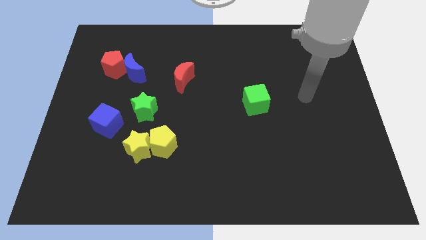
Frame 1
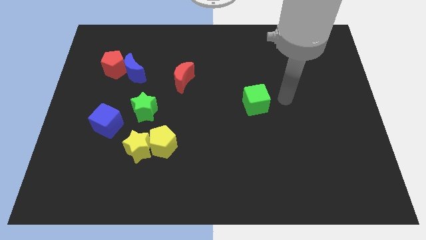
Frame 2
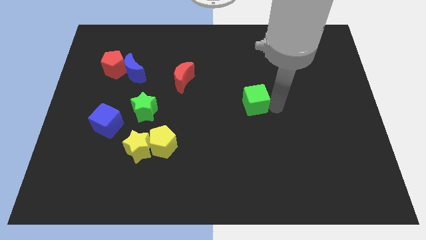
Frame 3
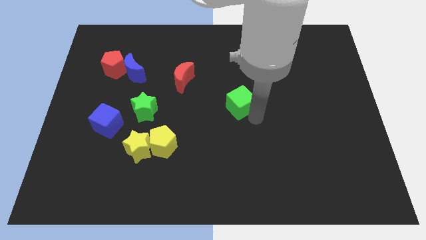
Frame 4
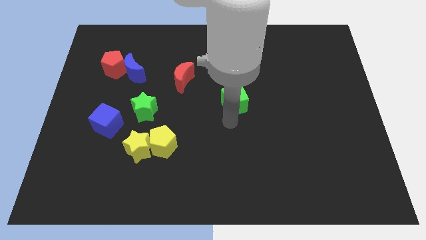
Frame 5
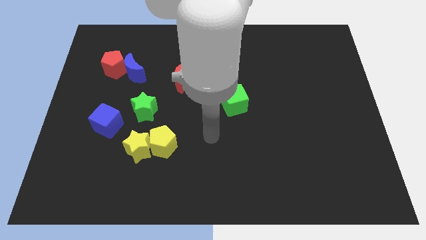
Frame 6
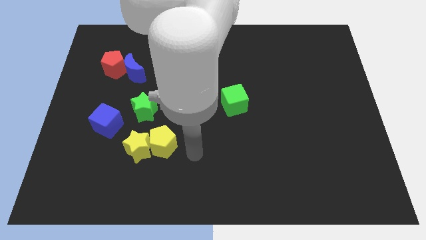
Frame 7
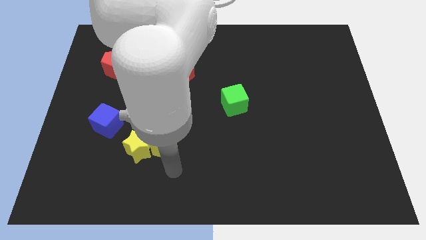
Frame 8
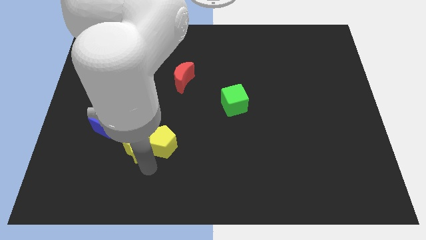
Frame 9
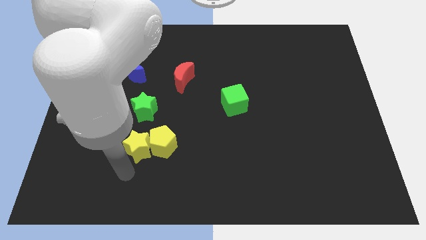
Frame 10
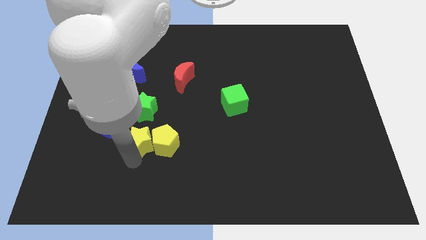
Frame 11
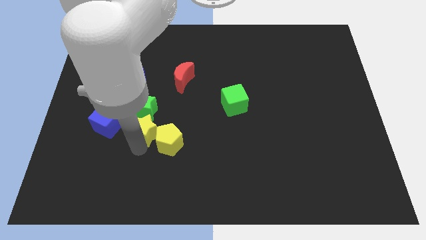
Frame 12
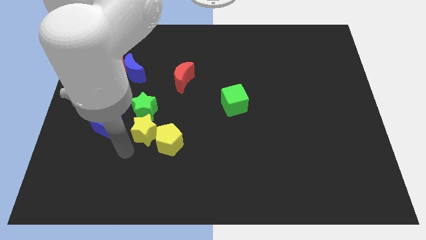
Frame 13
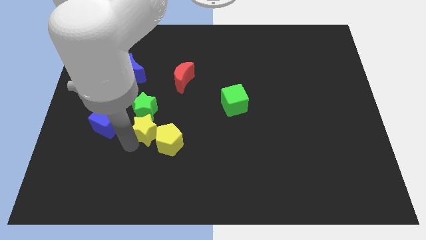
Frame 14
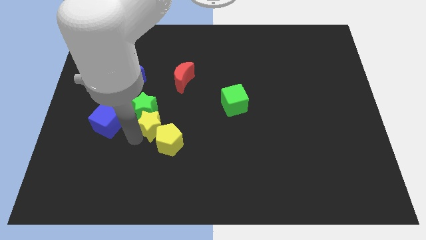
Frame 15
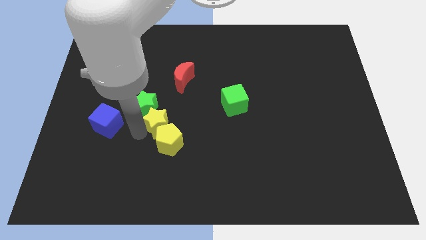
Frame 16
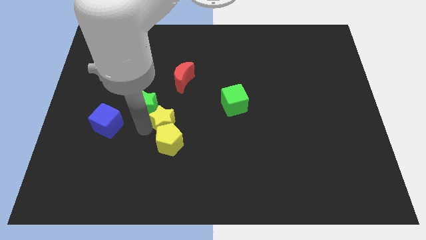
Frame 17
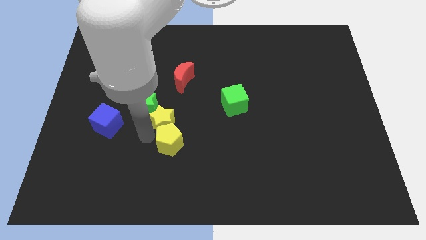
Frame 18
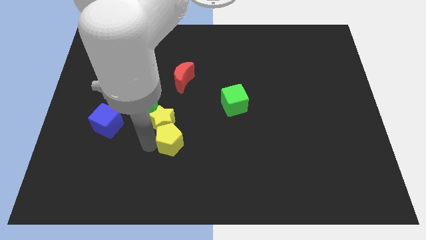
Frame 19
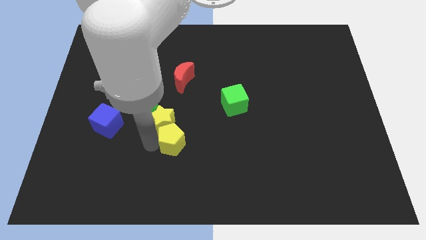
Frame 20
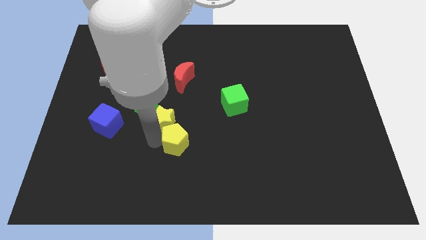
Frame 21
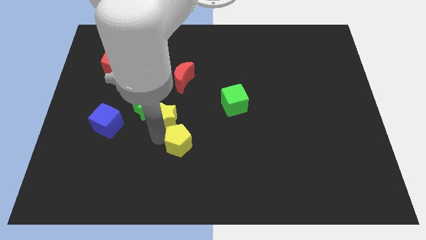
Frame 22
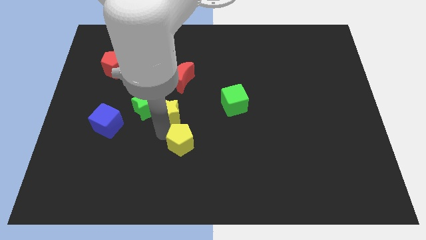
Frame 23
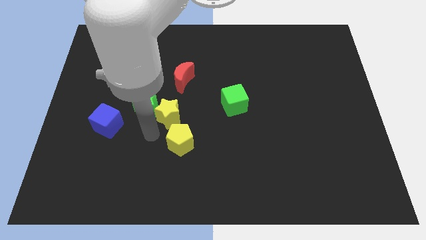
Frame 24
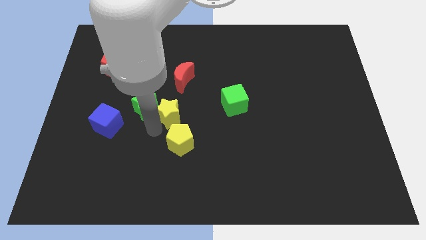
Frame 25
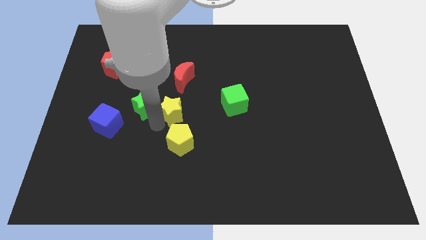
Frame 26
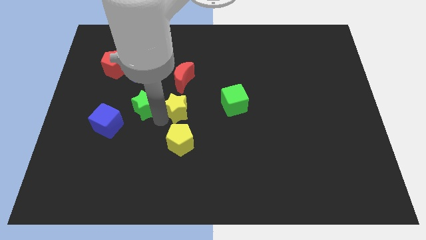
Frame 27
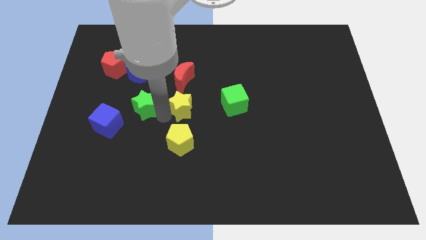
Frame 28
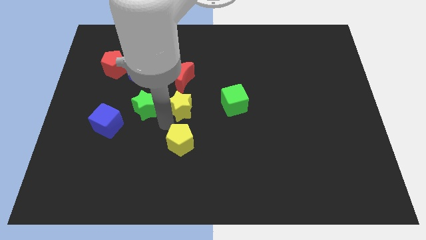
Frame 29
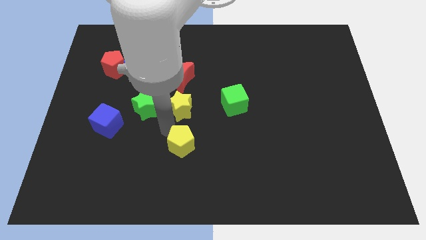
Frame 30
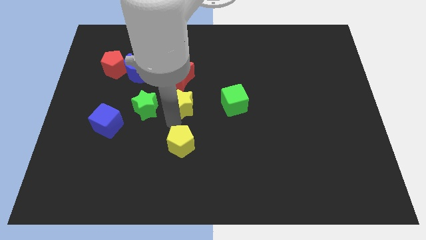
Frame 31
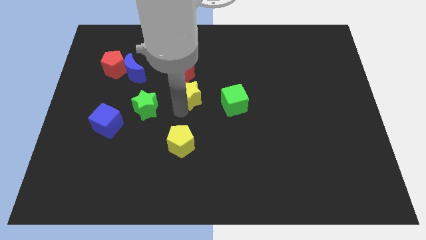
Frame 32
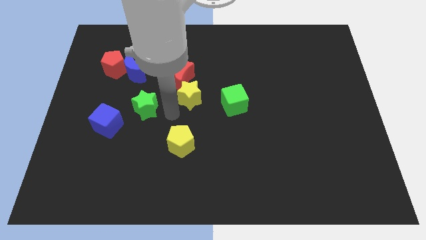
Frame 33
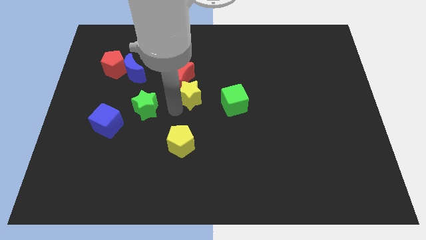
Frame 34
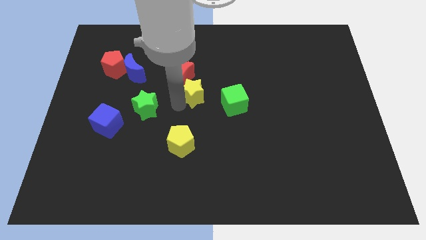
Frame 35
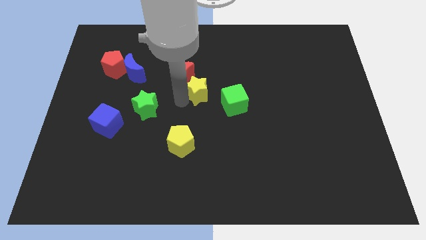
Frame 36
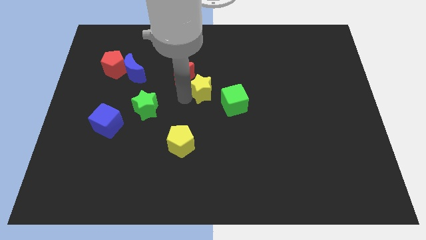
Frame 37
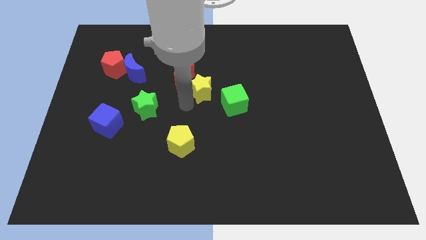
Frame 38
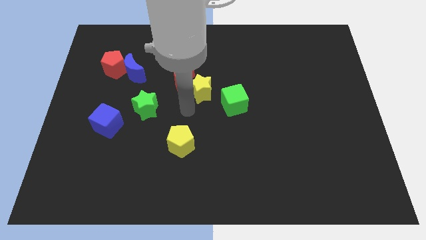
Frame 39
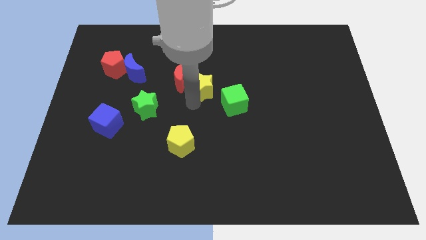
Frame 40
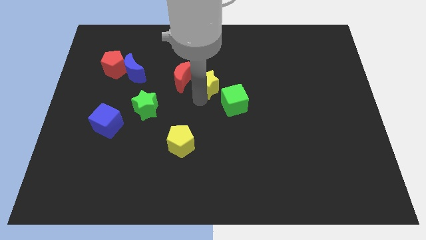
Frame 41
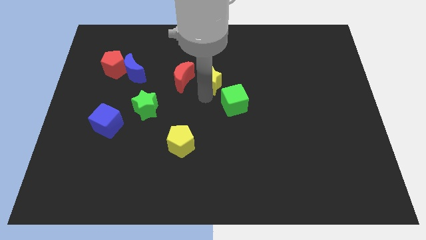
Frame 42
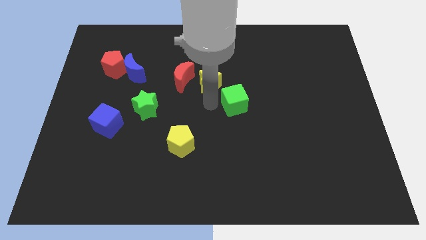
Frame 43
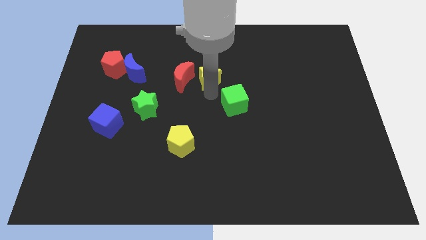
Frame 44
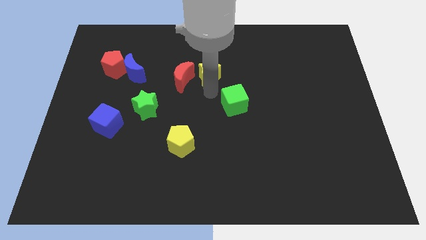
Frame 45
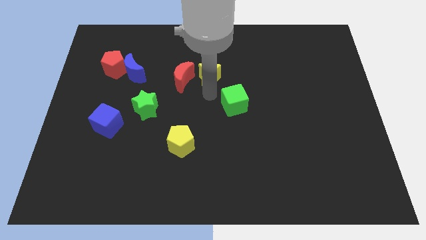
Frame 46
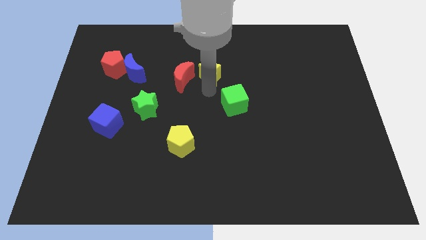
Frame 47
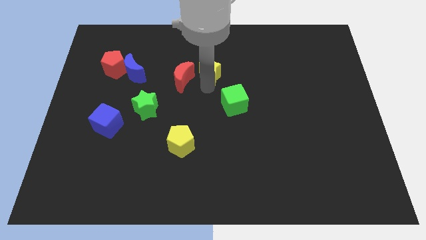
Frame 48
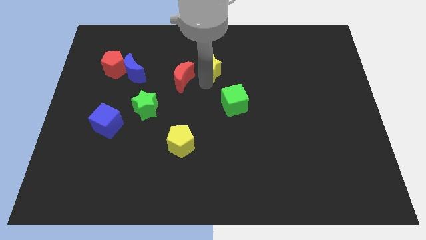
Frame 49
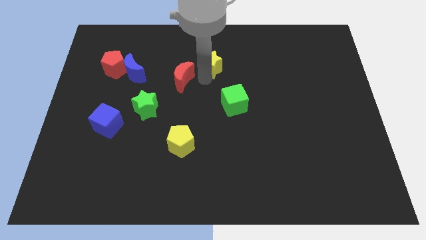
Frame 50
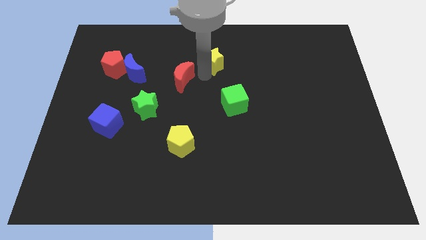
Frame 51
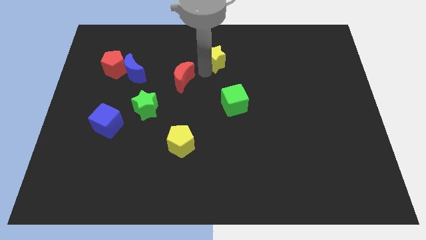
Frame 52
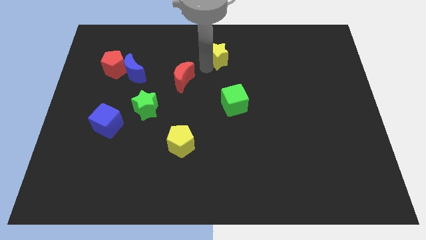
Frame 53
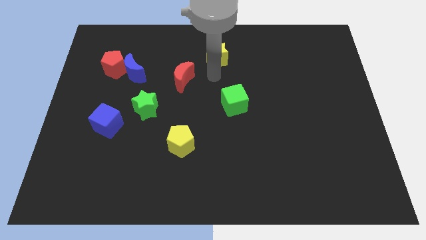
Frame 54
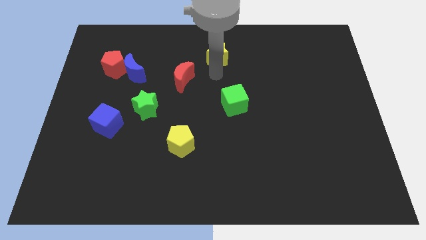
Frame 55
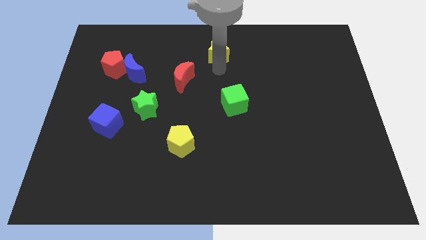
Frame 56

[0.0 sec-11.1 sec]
put the yellow star to the towards your base

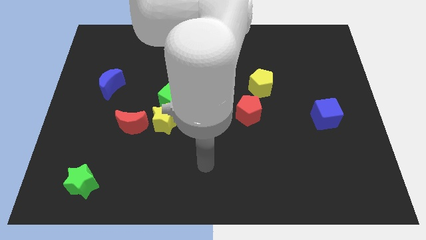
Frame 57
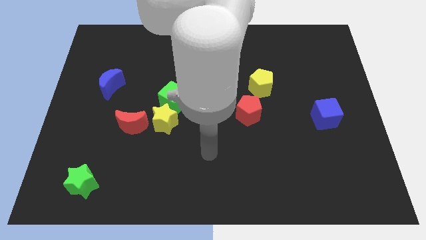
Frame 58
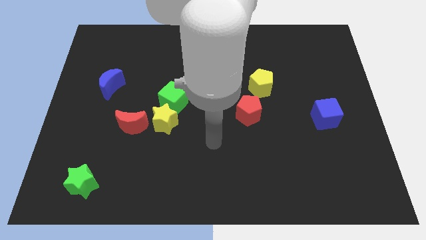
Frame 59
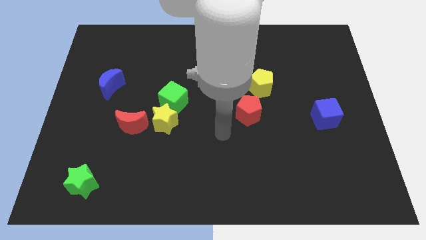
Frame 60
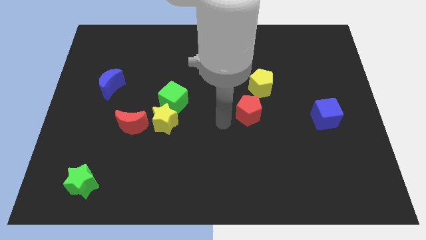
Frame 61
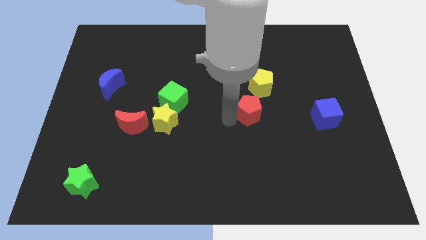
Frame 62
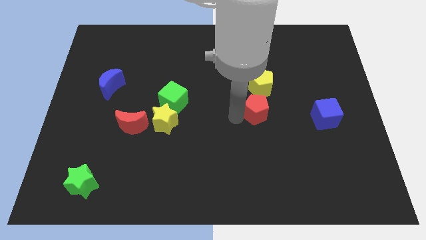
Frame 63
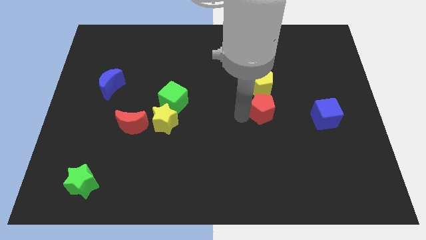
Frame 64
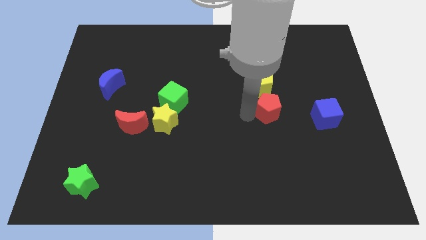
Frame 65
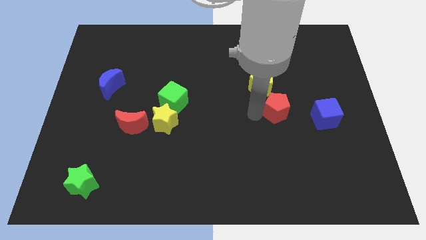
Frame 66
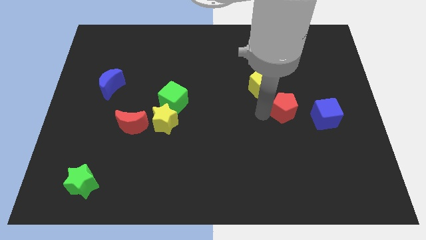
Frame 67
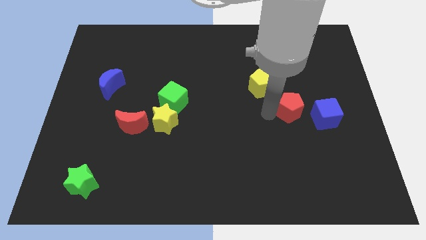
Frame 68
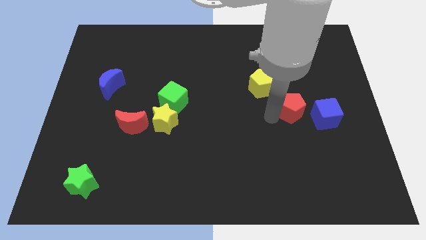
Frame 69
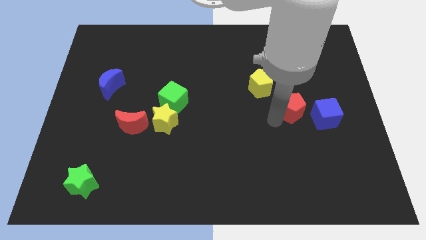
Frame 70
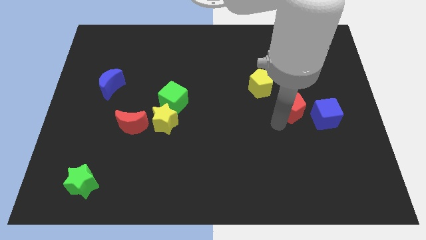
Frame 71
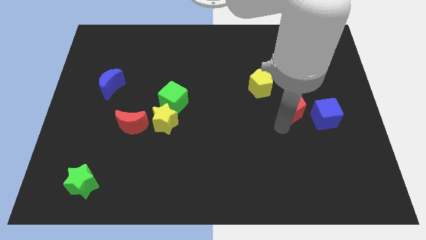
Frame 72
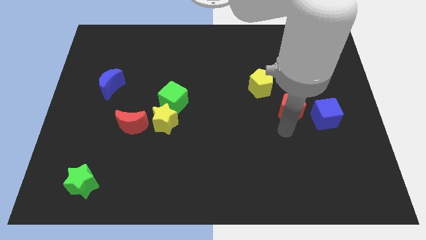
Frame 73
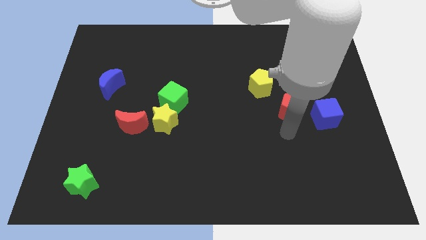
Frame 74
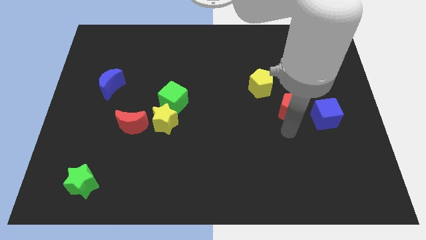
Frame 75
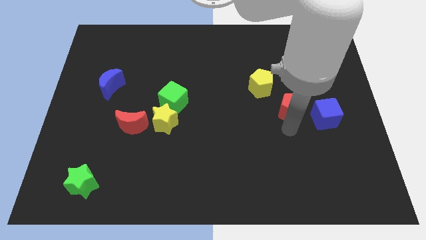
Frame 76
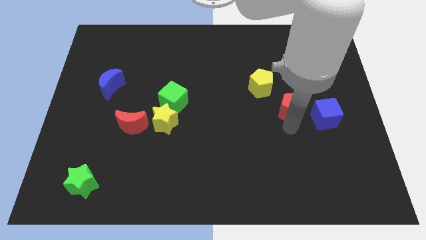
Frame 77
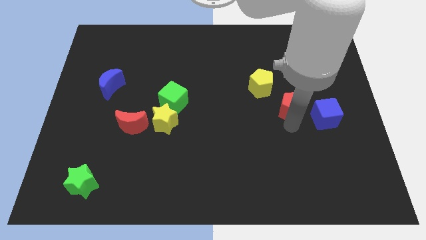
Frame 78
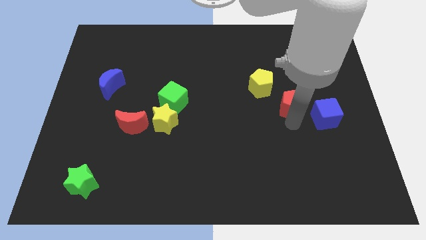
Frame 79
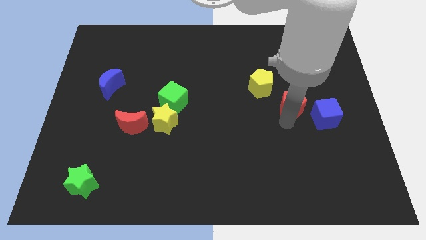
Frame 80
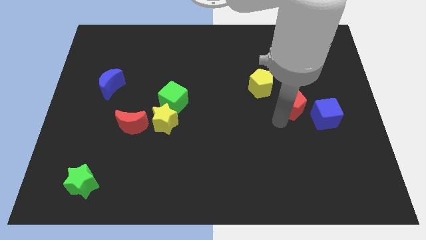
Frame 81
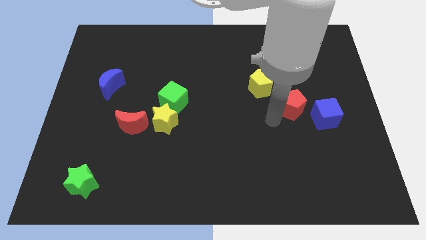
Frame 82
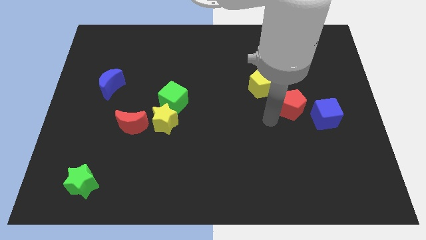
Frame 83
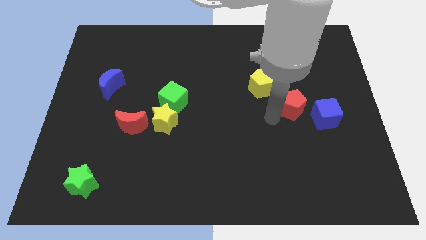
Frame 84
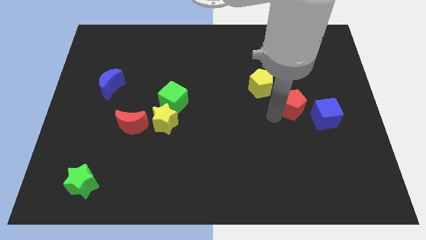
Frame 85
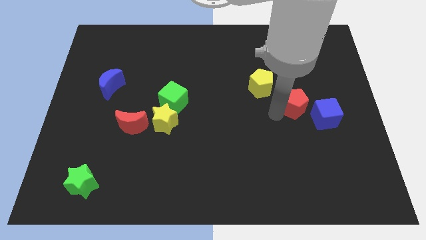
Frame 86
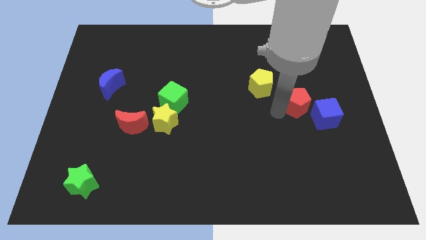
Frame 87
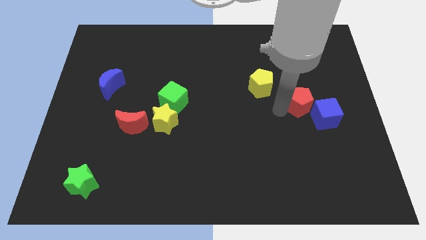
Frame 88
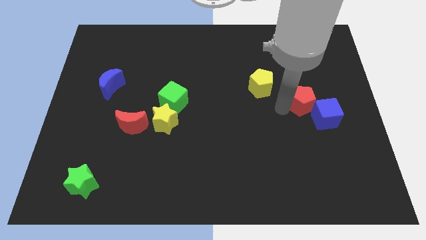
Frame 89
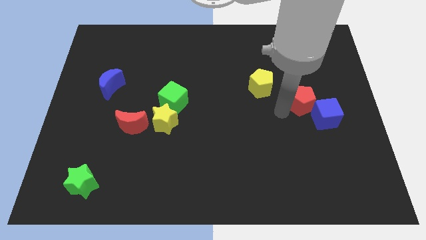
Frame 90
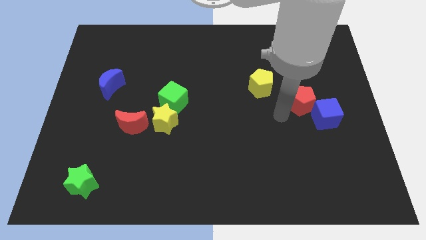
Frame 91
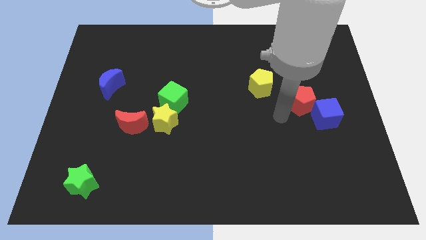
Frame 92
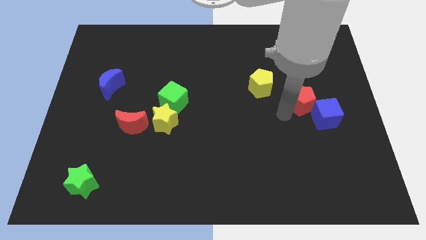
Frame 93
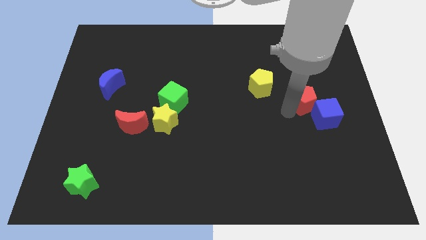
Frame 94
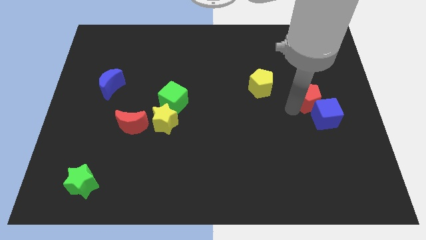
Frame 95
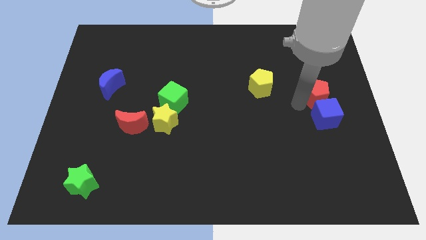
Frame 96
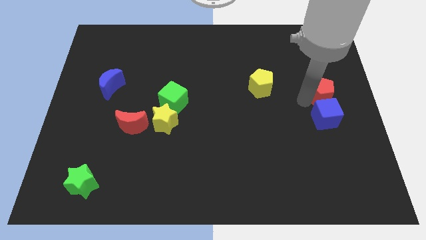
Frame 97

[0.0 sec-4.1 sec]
move the red pentagon to the center right
